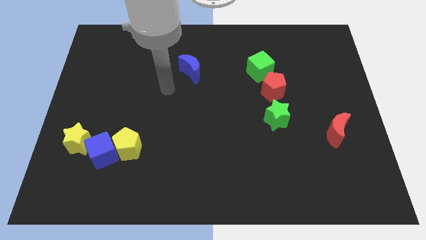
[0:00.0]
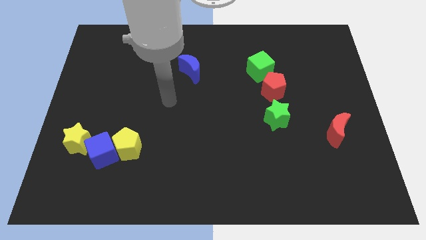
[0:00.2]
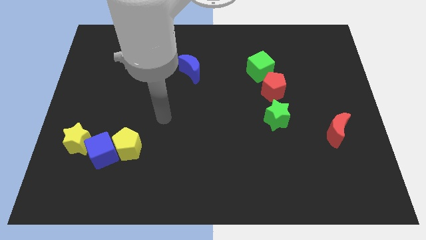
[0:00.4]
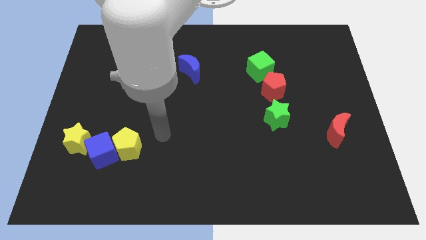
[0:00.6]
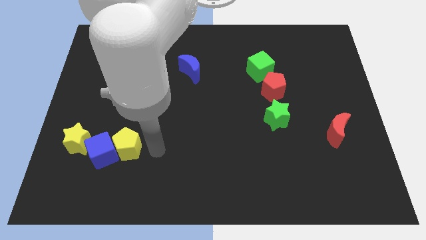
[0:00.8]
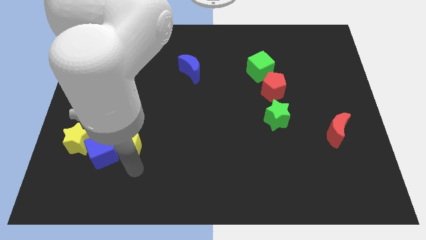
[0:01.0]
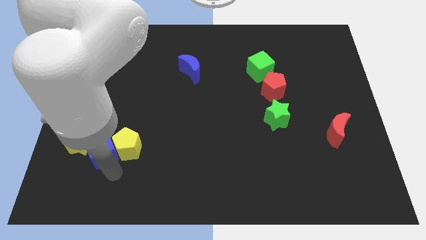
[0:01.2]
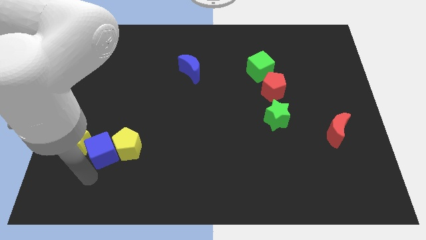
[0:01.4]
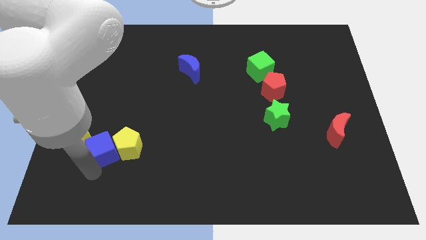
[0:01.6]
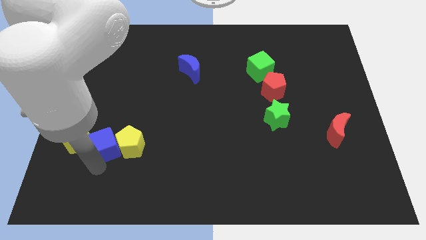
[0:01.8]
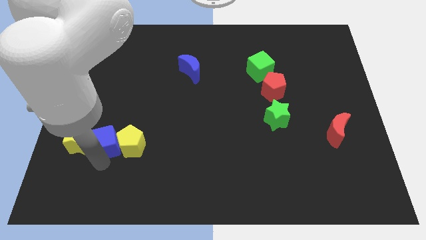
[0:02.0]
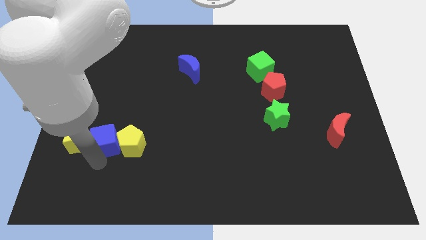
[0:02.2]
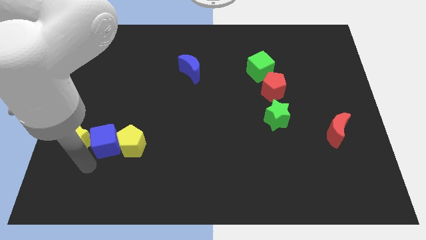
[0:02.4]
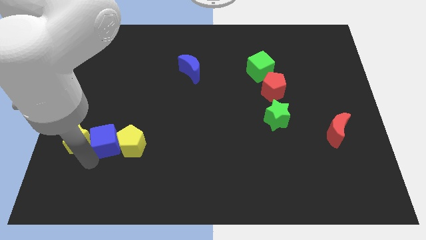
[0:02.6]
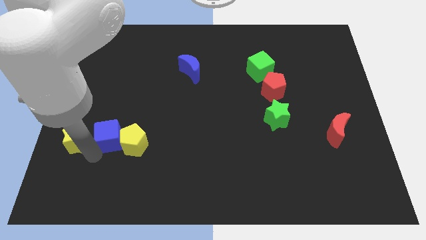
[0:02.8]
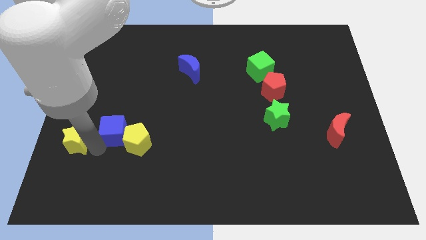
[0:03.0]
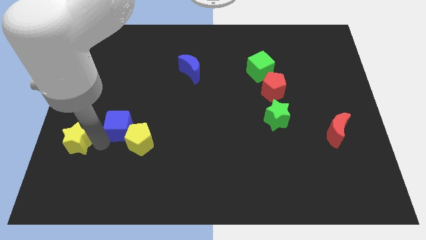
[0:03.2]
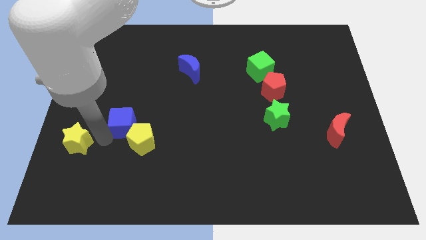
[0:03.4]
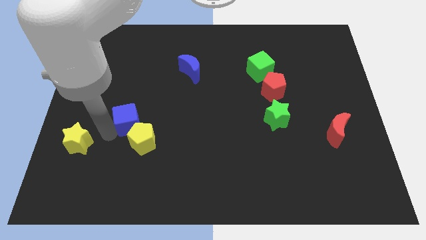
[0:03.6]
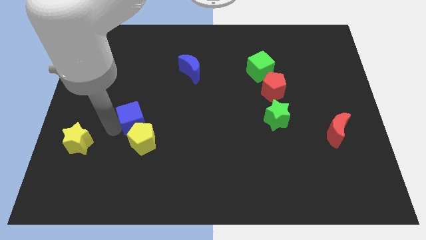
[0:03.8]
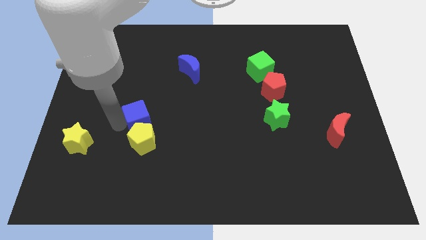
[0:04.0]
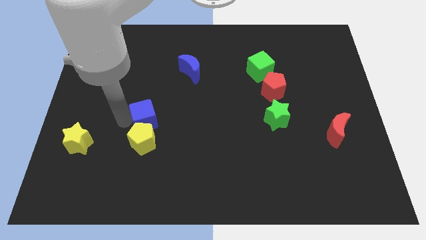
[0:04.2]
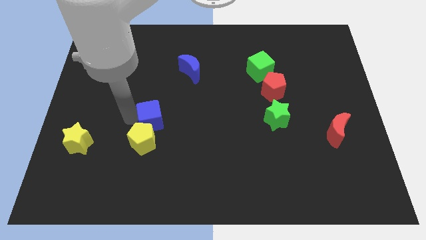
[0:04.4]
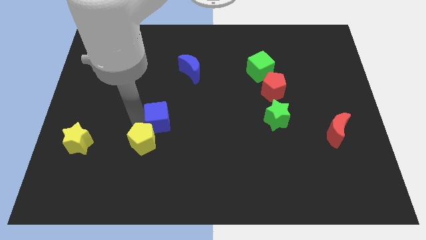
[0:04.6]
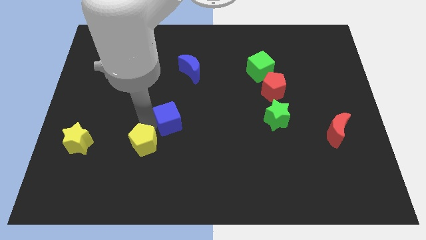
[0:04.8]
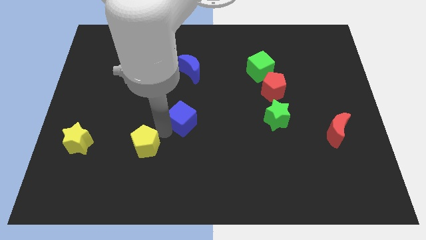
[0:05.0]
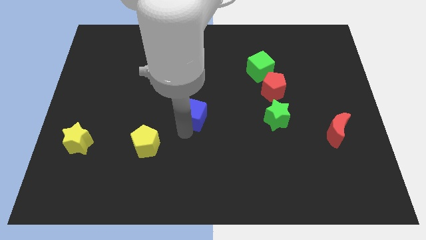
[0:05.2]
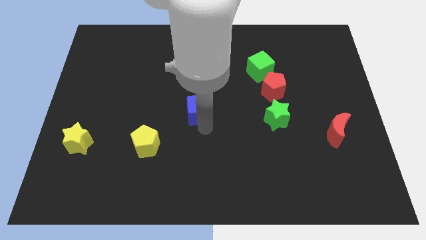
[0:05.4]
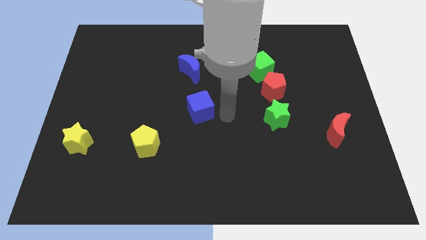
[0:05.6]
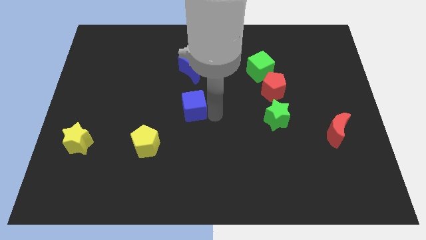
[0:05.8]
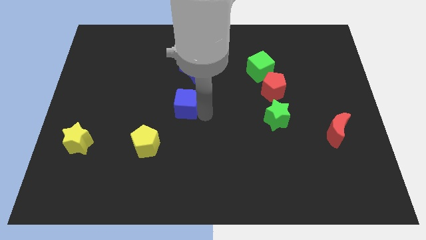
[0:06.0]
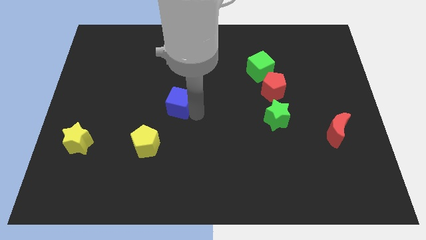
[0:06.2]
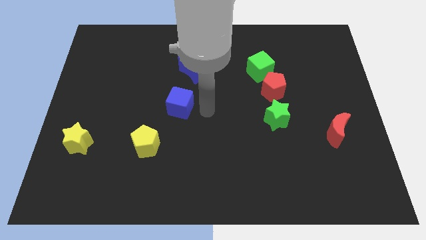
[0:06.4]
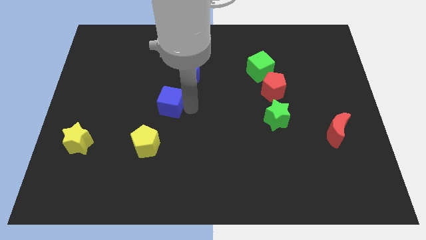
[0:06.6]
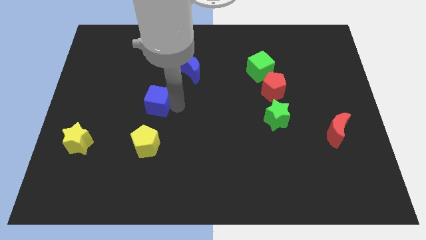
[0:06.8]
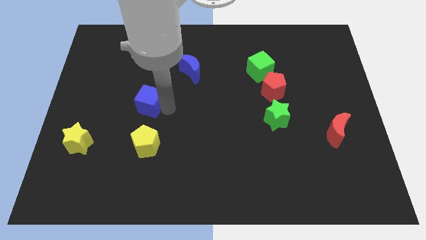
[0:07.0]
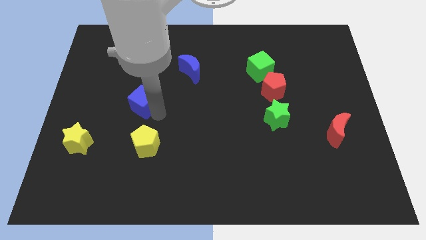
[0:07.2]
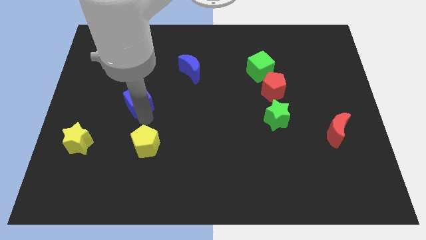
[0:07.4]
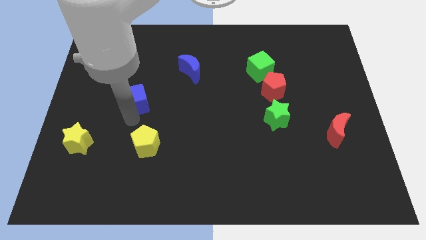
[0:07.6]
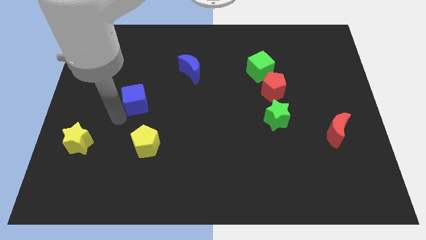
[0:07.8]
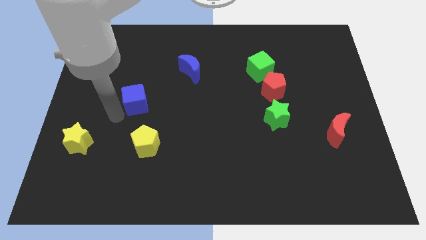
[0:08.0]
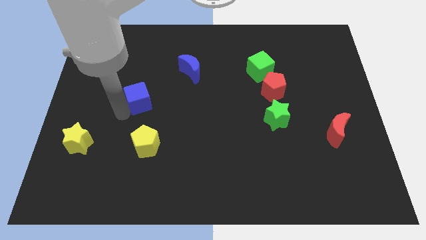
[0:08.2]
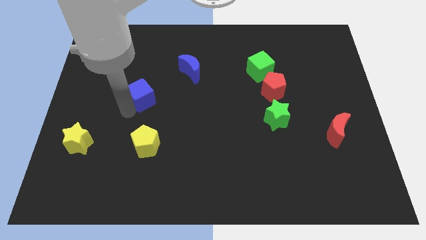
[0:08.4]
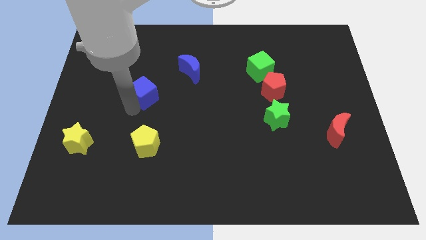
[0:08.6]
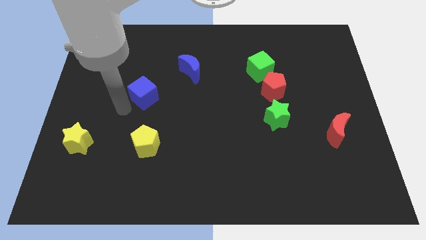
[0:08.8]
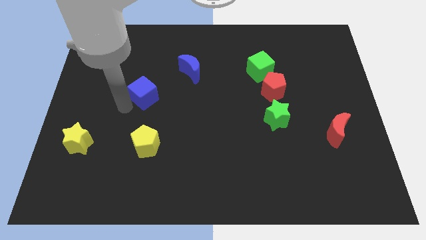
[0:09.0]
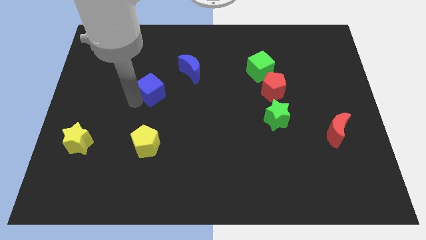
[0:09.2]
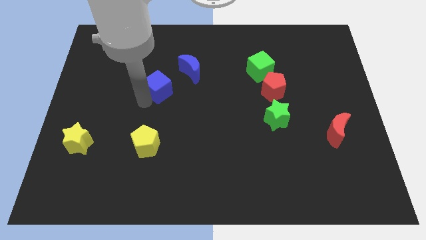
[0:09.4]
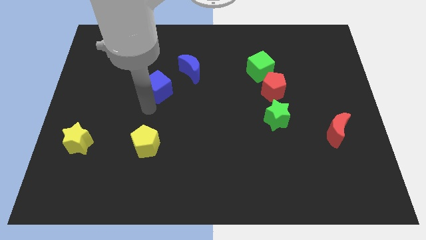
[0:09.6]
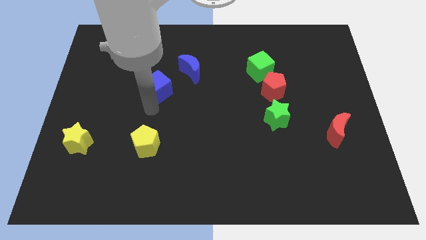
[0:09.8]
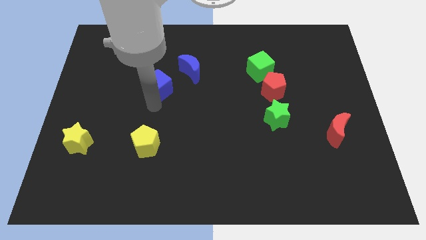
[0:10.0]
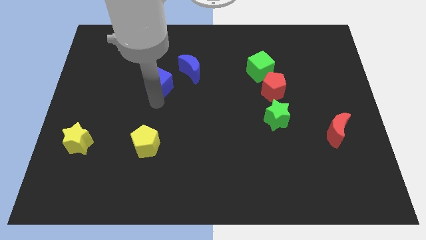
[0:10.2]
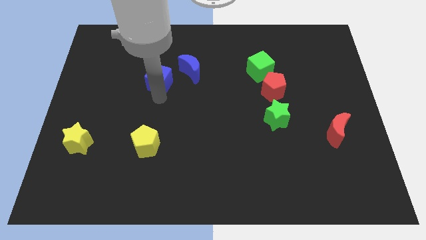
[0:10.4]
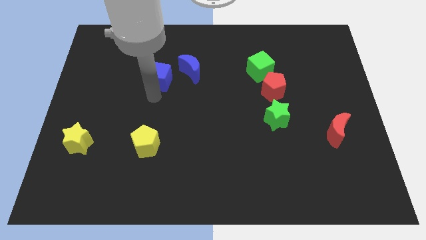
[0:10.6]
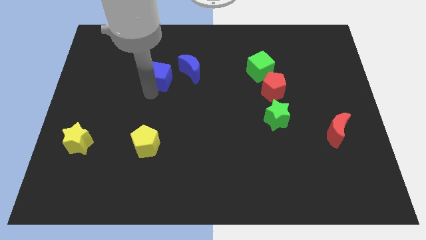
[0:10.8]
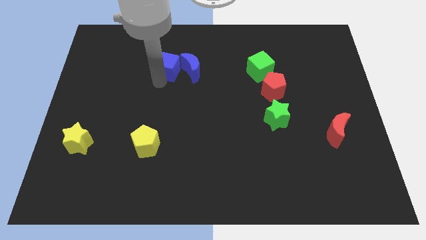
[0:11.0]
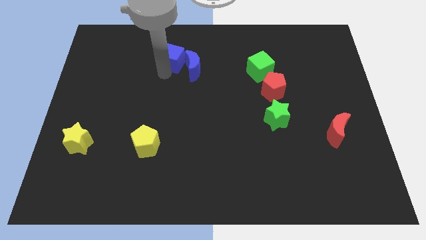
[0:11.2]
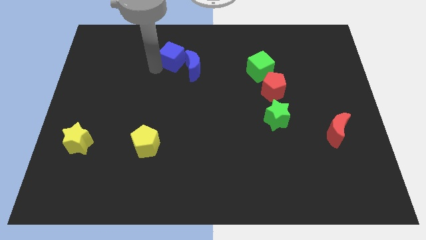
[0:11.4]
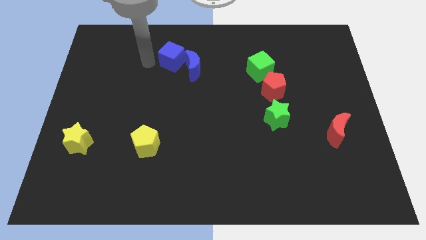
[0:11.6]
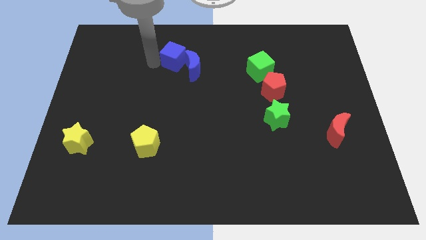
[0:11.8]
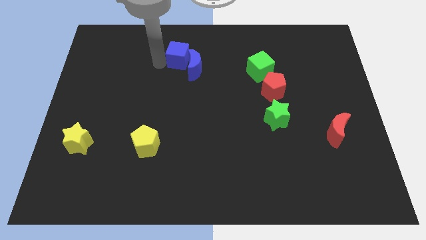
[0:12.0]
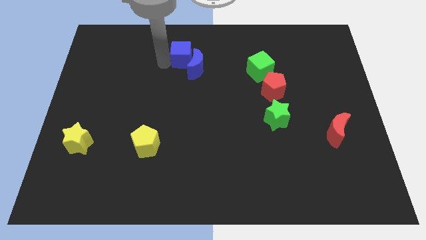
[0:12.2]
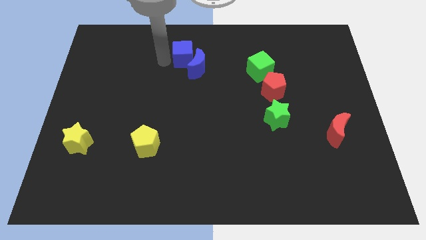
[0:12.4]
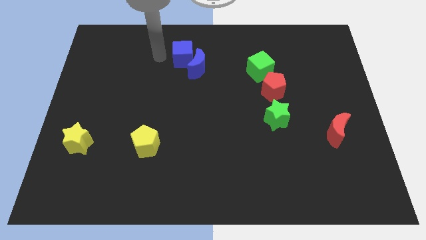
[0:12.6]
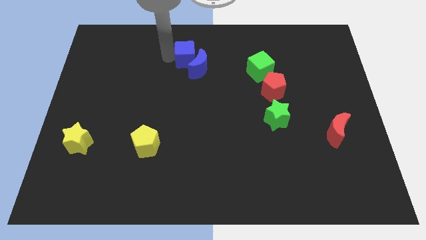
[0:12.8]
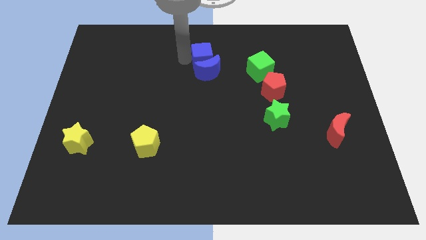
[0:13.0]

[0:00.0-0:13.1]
move the blue cube diagonally up and to the right of the blue moon

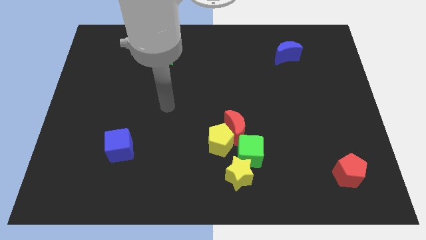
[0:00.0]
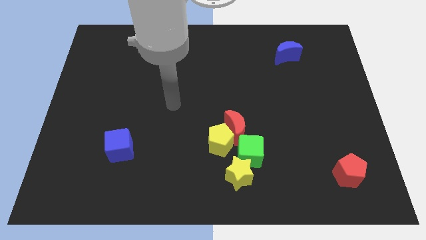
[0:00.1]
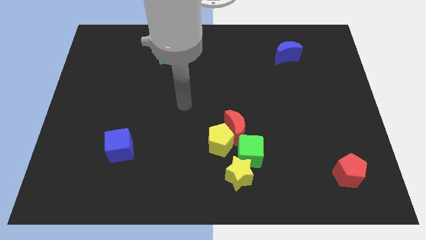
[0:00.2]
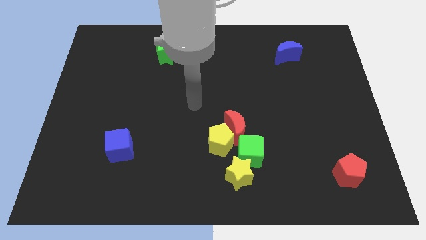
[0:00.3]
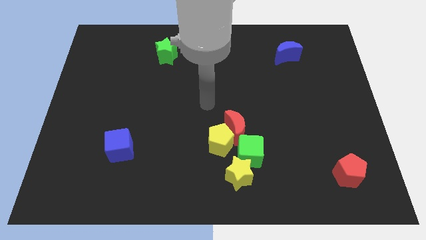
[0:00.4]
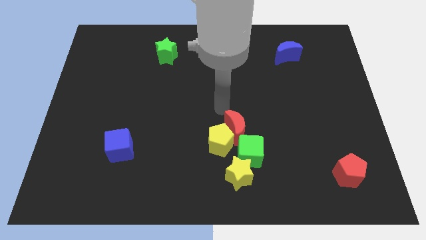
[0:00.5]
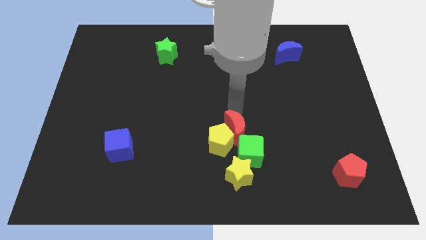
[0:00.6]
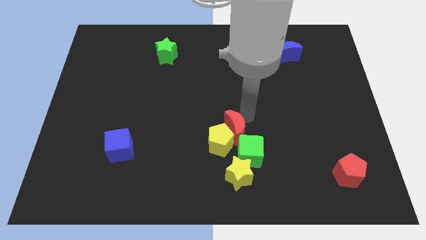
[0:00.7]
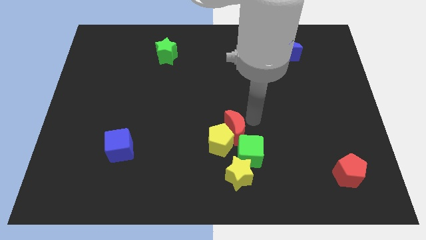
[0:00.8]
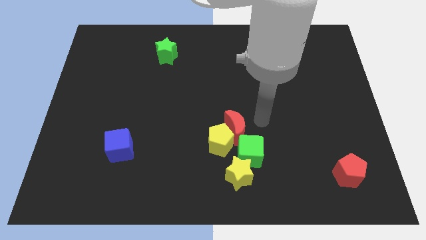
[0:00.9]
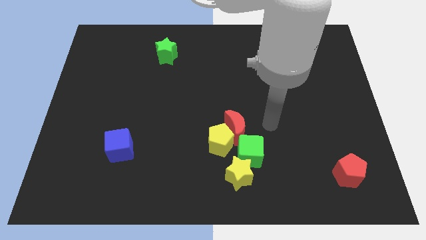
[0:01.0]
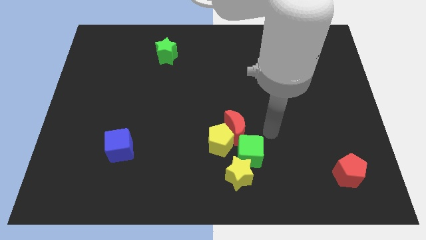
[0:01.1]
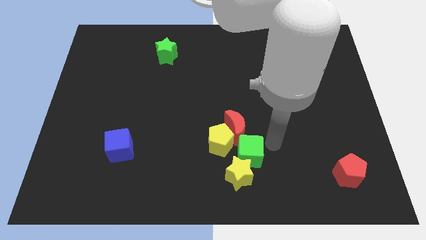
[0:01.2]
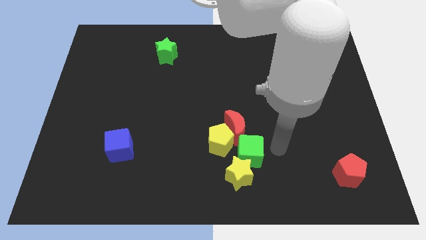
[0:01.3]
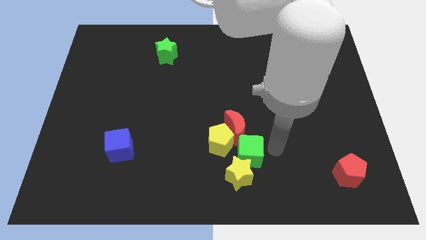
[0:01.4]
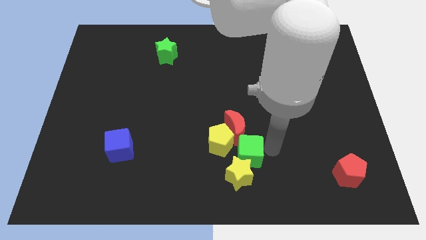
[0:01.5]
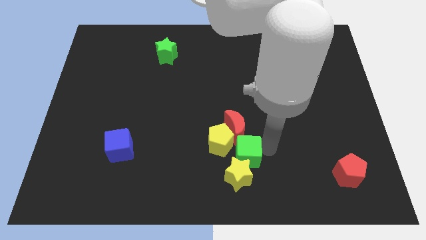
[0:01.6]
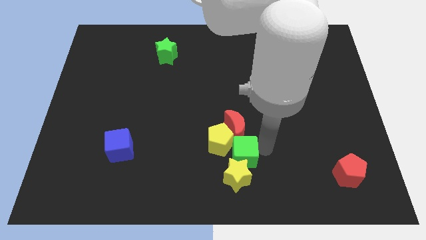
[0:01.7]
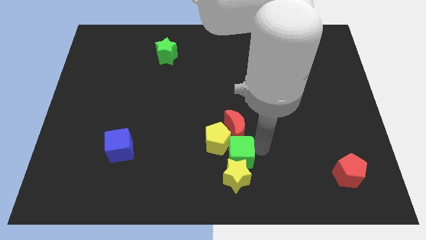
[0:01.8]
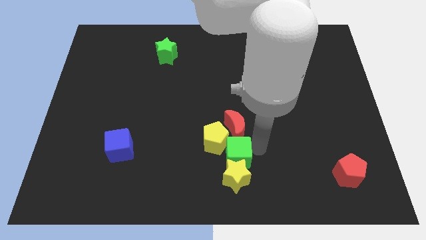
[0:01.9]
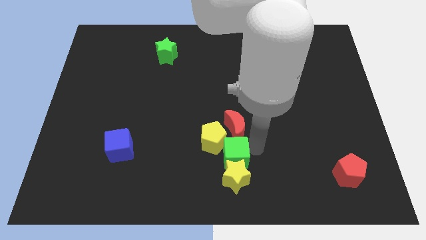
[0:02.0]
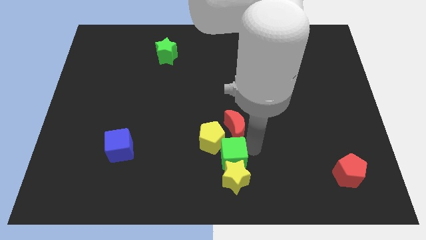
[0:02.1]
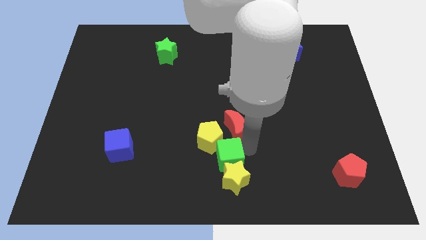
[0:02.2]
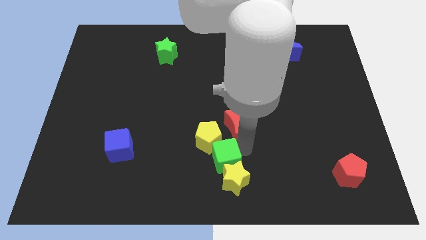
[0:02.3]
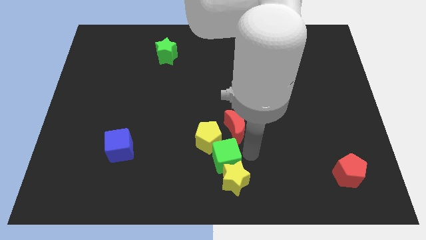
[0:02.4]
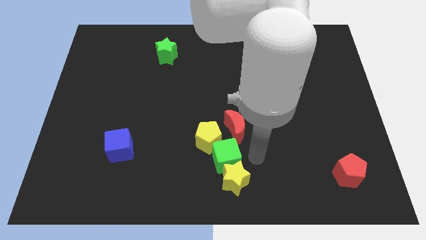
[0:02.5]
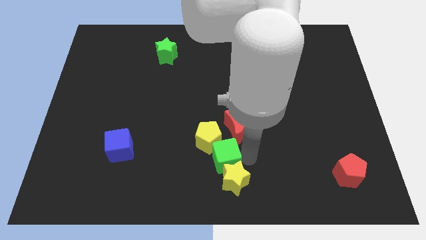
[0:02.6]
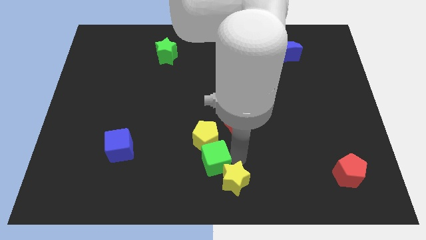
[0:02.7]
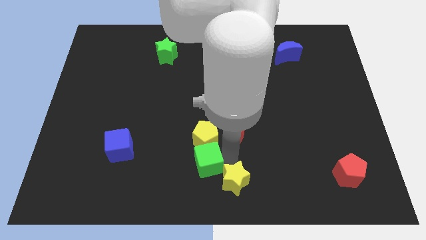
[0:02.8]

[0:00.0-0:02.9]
push the green cube to the bottom left side of the yellow pentagon
